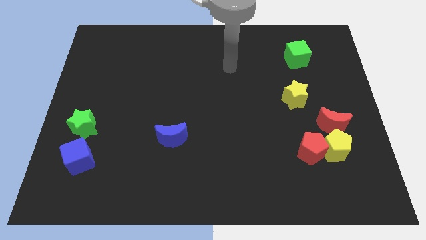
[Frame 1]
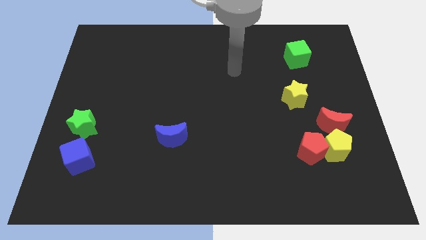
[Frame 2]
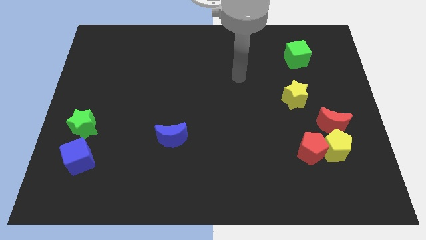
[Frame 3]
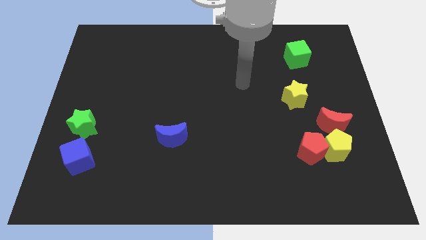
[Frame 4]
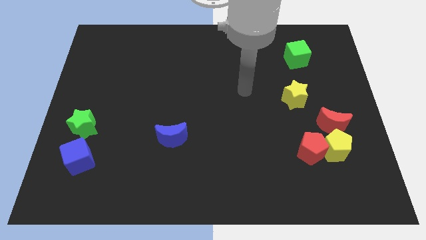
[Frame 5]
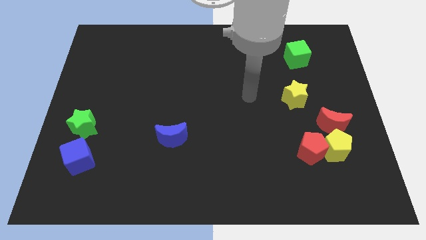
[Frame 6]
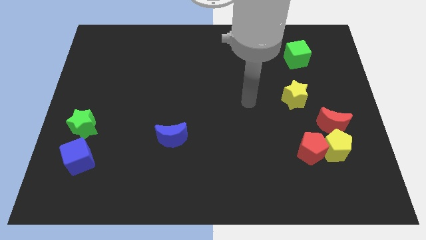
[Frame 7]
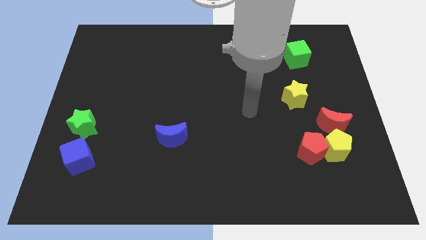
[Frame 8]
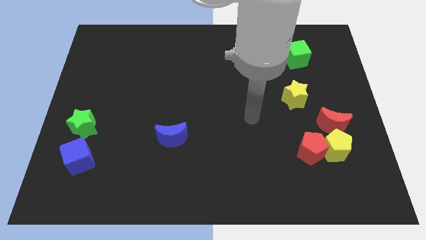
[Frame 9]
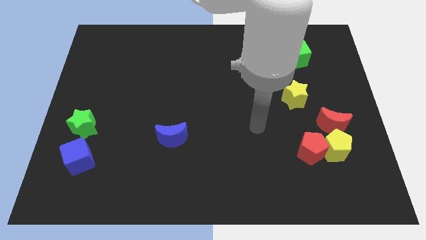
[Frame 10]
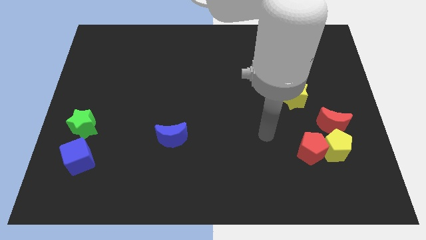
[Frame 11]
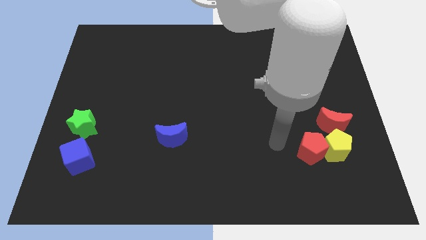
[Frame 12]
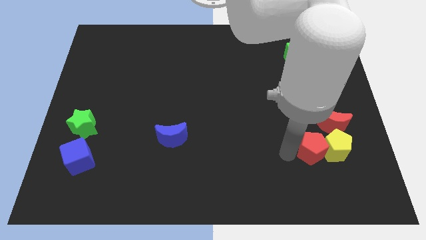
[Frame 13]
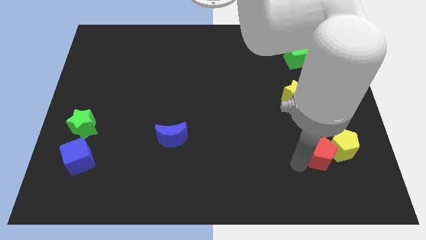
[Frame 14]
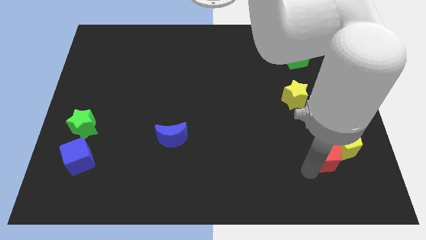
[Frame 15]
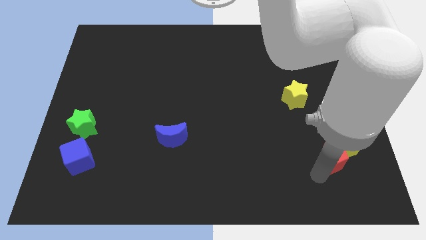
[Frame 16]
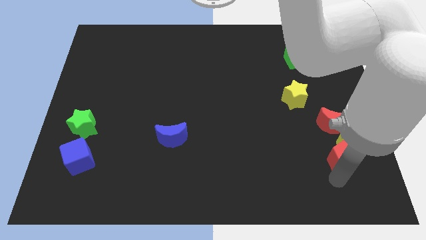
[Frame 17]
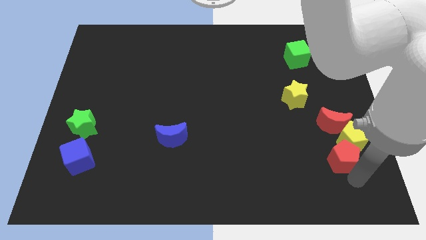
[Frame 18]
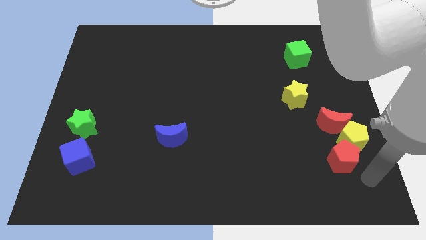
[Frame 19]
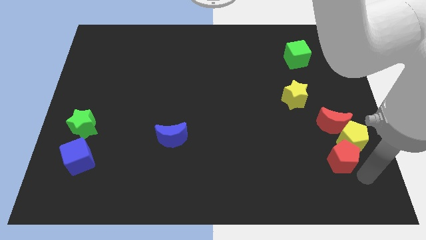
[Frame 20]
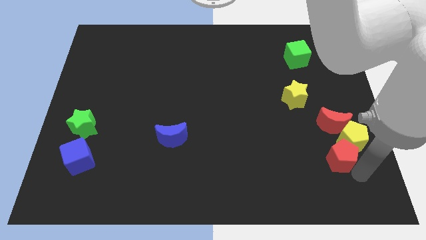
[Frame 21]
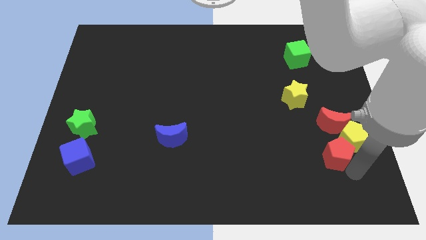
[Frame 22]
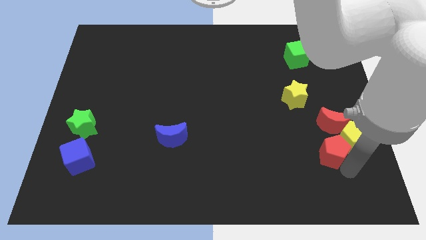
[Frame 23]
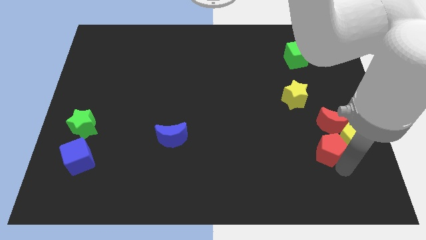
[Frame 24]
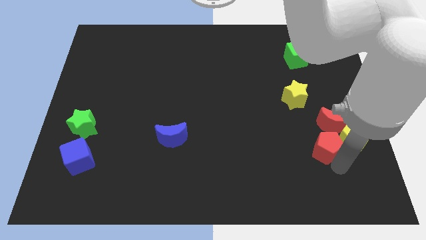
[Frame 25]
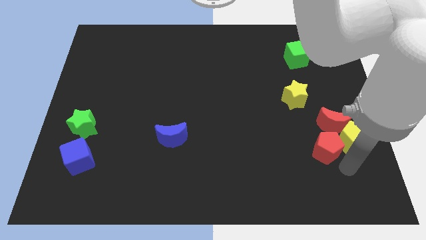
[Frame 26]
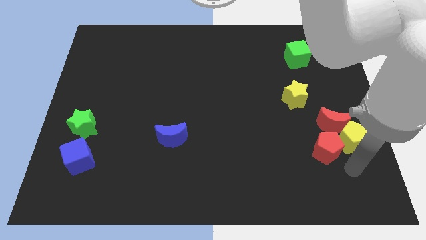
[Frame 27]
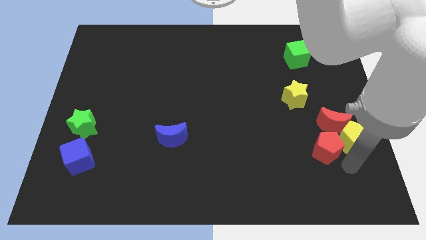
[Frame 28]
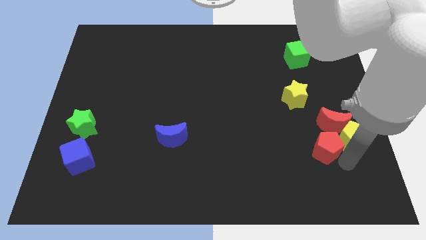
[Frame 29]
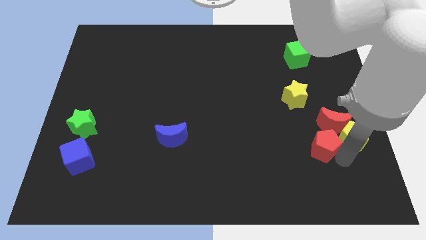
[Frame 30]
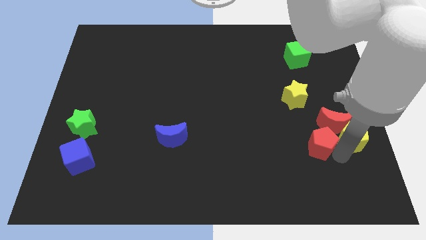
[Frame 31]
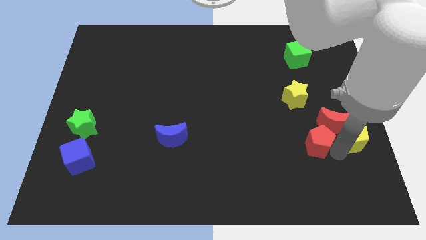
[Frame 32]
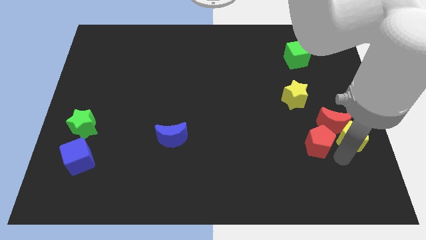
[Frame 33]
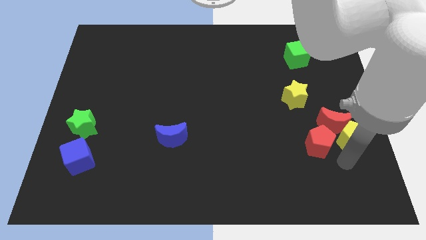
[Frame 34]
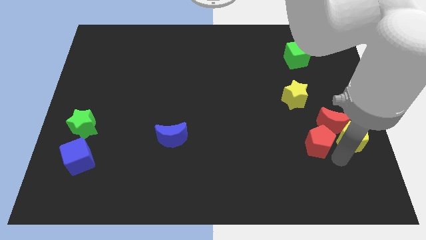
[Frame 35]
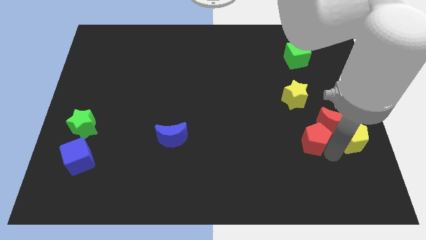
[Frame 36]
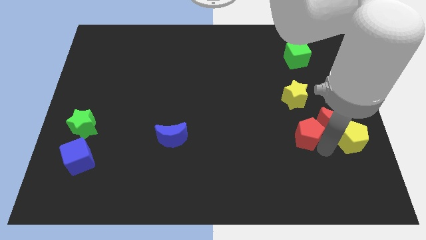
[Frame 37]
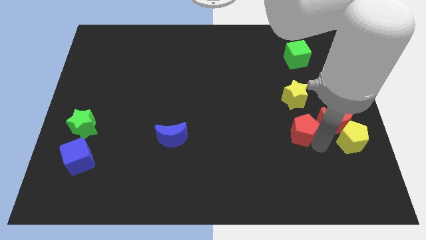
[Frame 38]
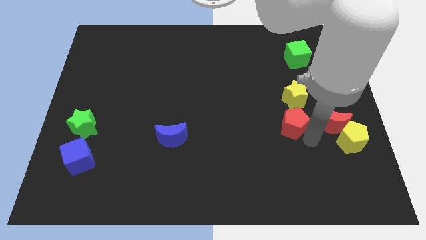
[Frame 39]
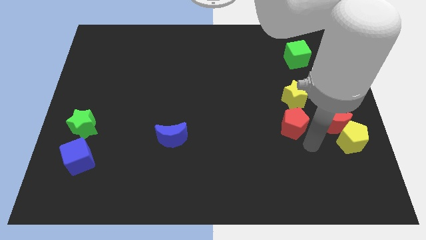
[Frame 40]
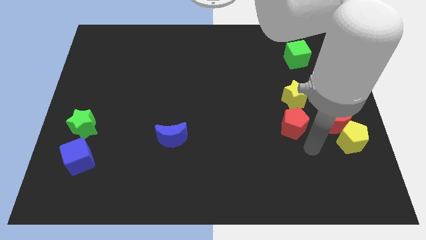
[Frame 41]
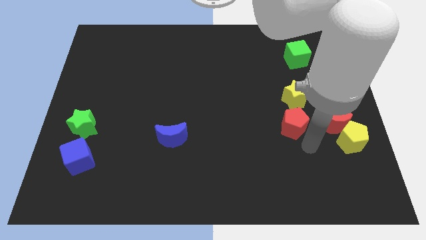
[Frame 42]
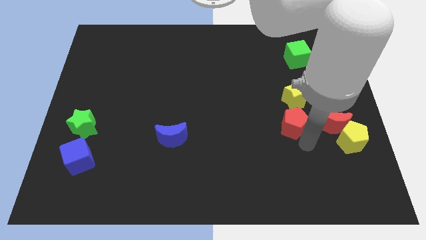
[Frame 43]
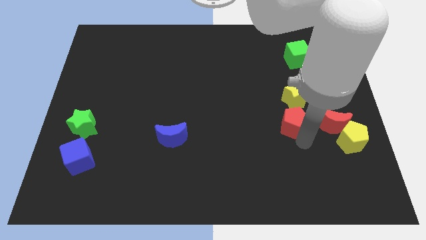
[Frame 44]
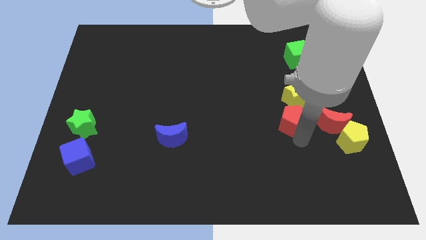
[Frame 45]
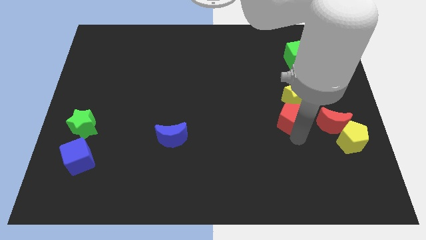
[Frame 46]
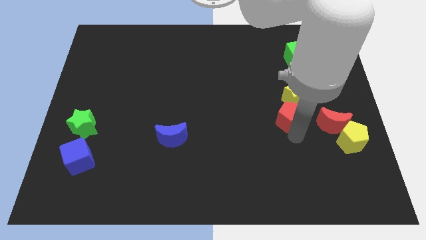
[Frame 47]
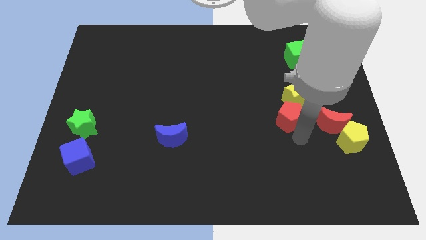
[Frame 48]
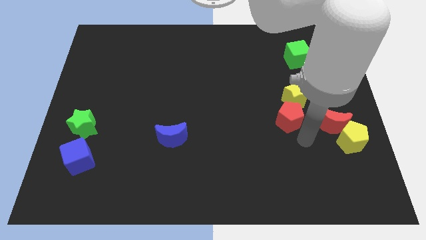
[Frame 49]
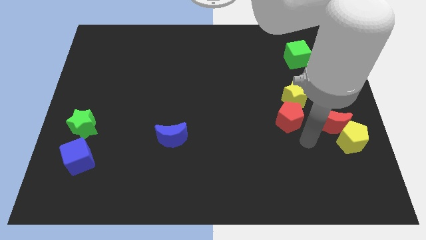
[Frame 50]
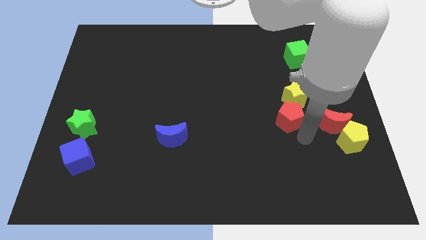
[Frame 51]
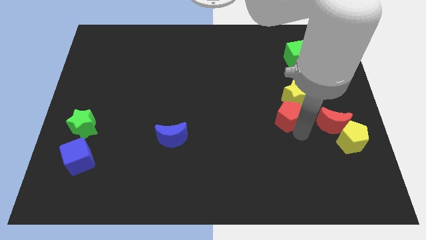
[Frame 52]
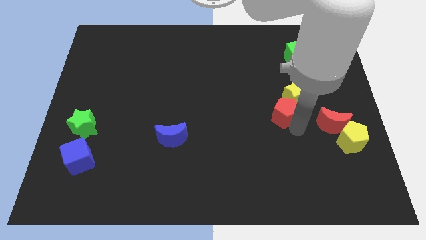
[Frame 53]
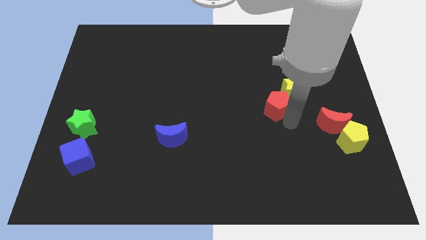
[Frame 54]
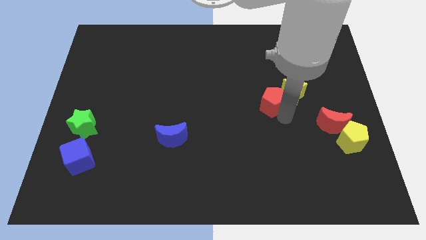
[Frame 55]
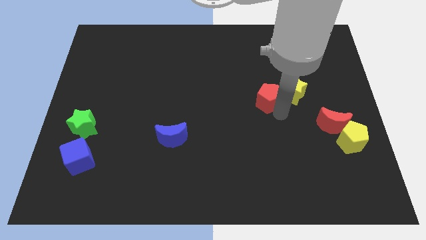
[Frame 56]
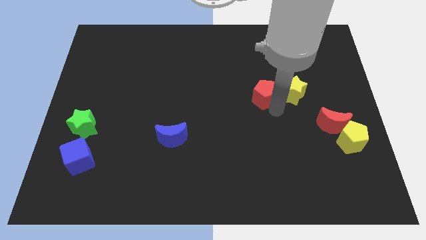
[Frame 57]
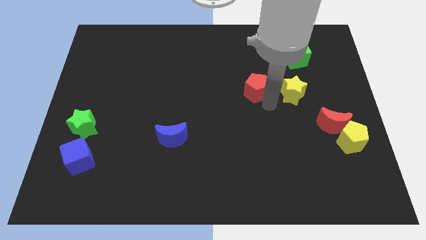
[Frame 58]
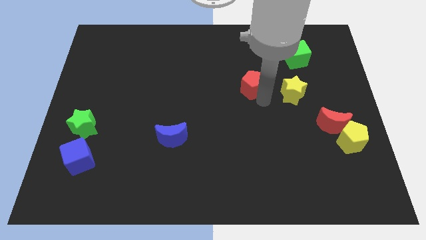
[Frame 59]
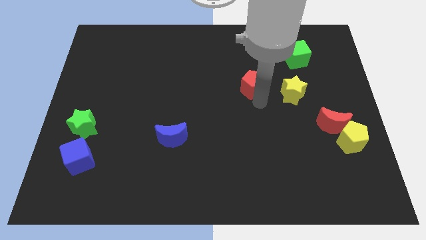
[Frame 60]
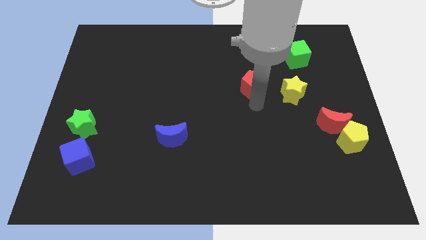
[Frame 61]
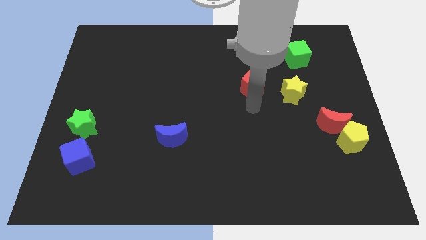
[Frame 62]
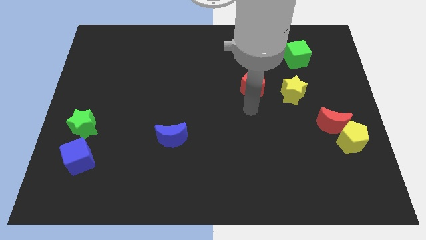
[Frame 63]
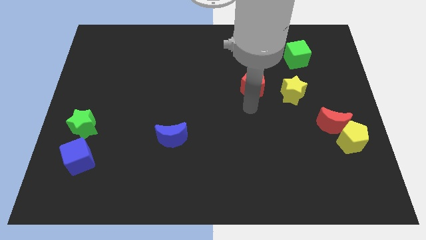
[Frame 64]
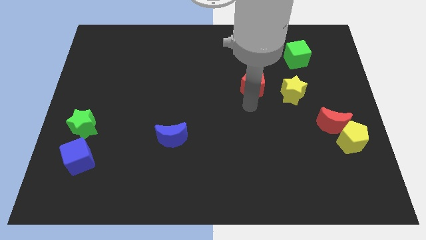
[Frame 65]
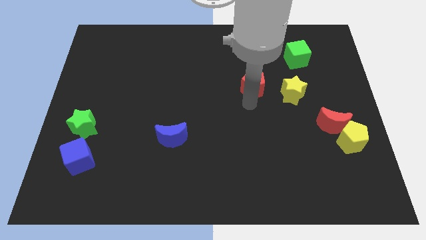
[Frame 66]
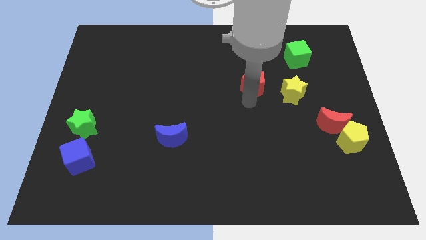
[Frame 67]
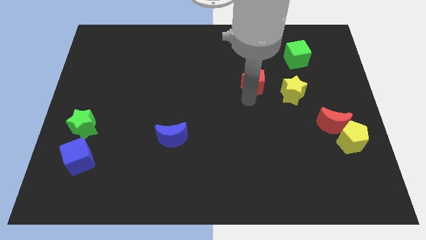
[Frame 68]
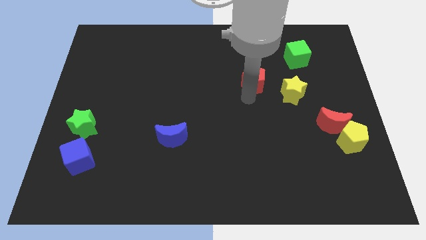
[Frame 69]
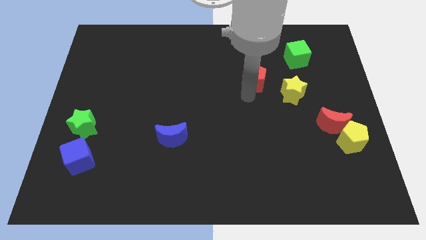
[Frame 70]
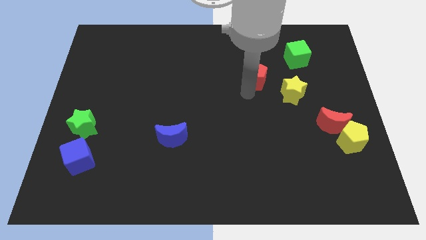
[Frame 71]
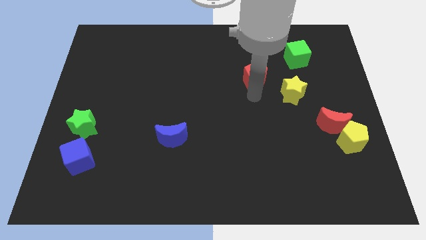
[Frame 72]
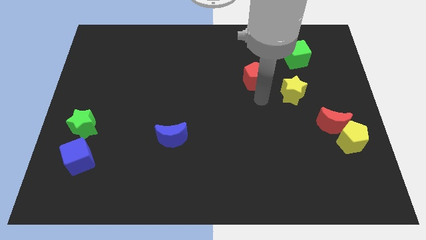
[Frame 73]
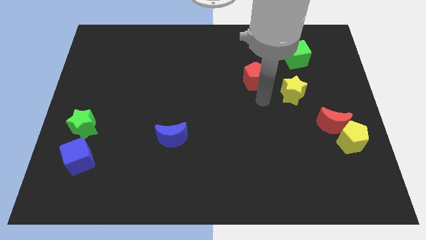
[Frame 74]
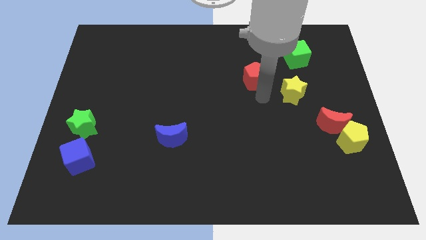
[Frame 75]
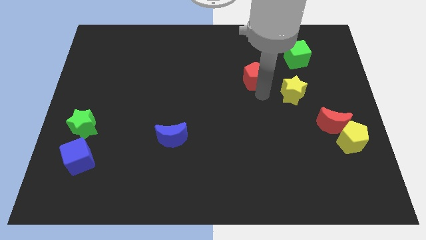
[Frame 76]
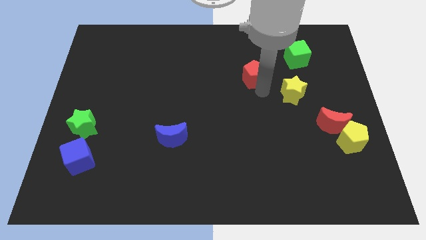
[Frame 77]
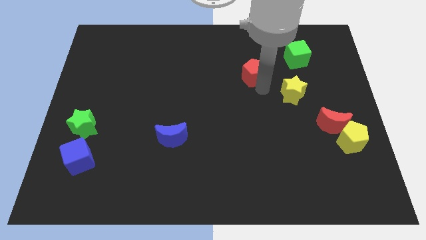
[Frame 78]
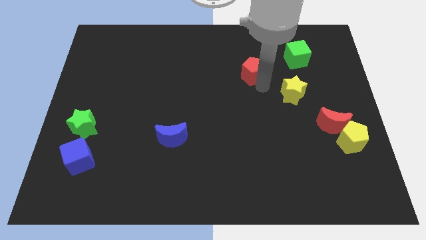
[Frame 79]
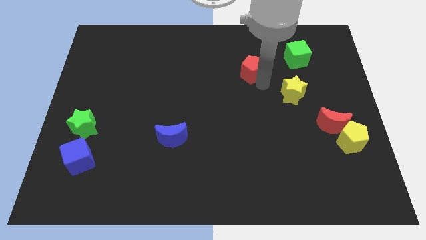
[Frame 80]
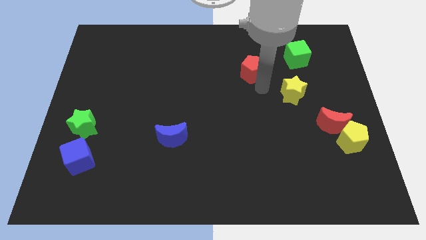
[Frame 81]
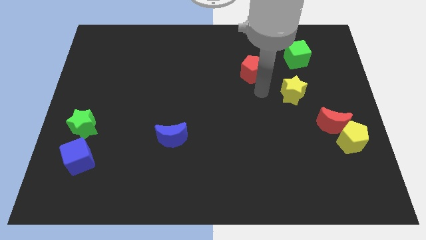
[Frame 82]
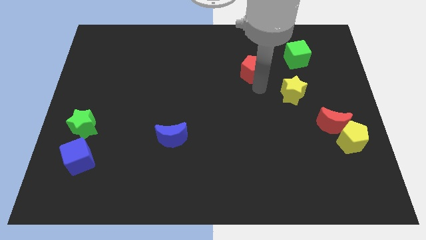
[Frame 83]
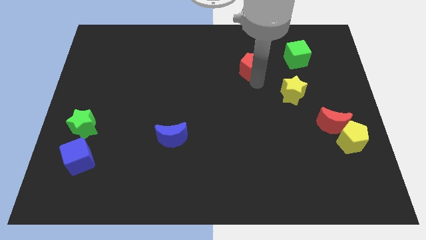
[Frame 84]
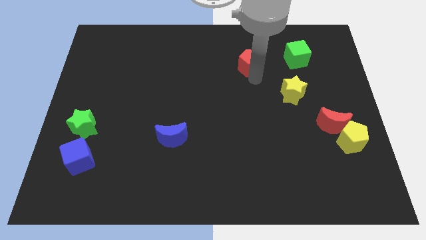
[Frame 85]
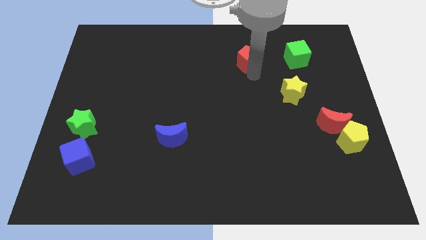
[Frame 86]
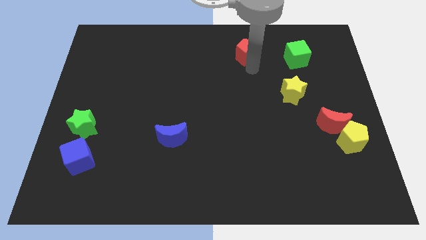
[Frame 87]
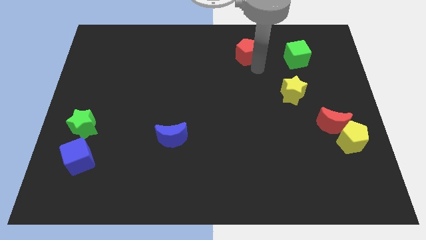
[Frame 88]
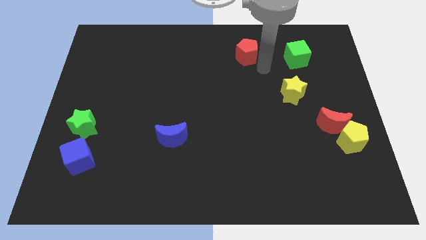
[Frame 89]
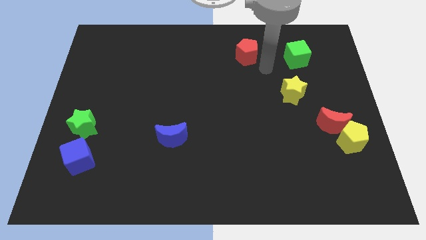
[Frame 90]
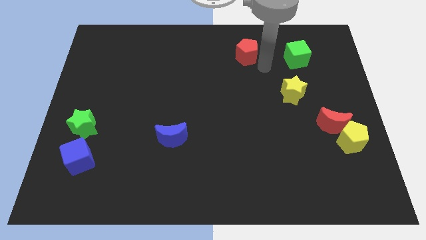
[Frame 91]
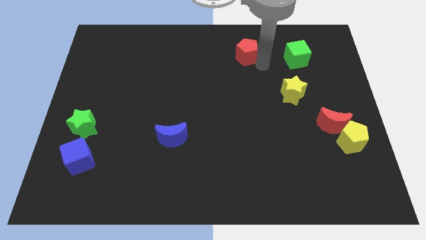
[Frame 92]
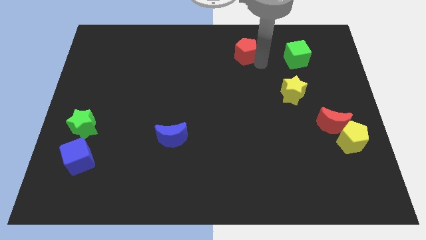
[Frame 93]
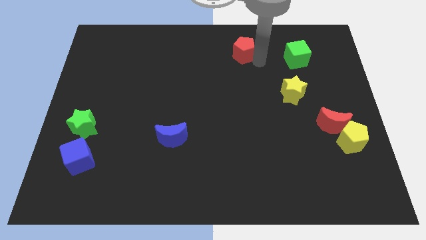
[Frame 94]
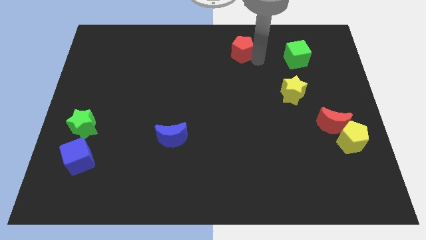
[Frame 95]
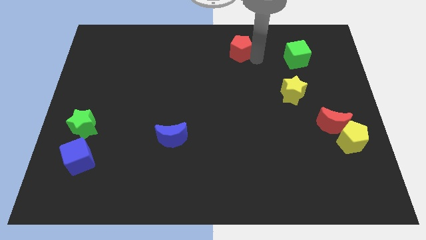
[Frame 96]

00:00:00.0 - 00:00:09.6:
push the red pentagon to the top side
